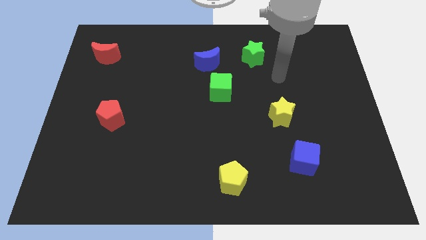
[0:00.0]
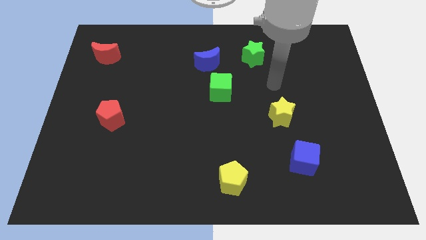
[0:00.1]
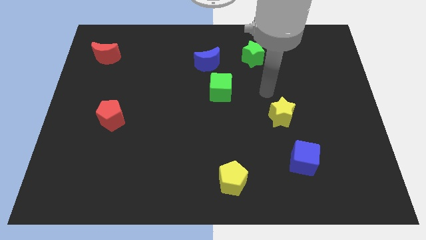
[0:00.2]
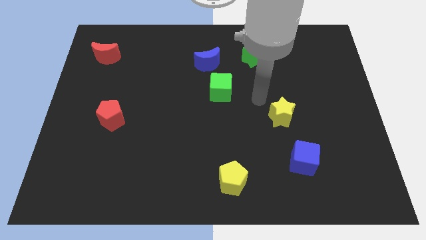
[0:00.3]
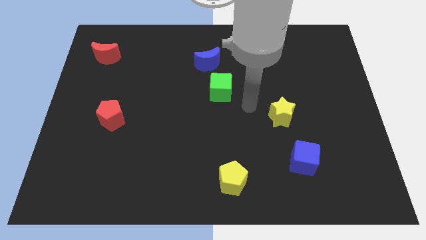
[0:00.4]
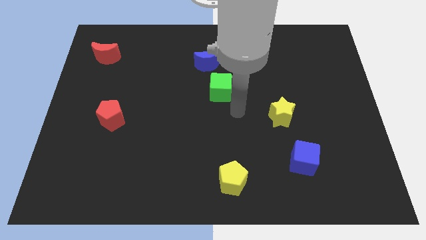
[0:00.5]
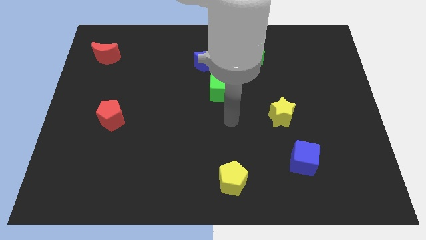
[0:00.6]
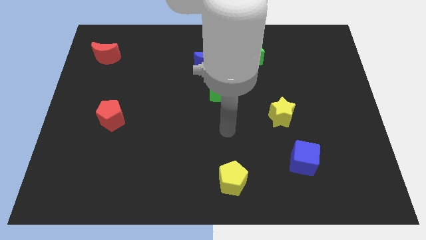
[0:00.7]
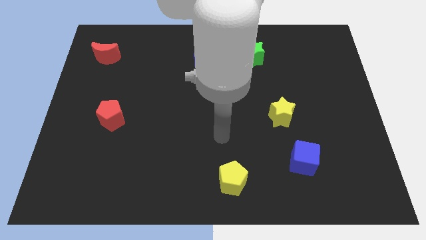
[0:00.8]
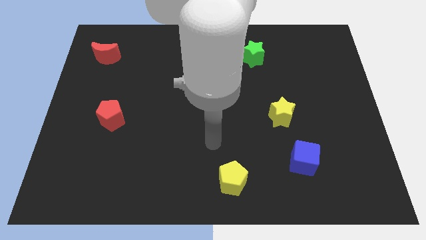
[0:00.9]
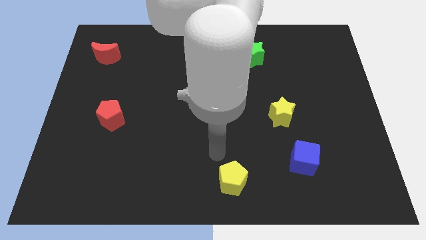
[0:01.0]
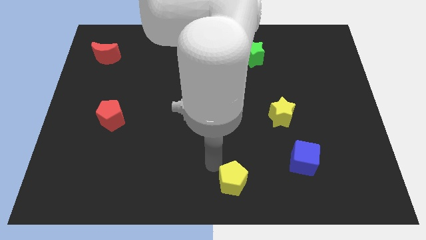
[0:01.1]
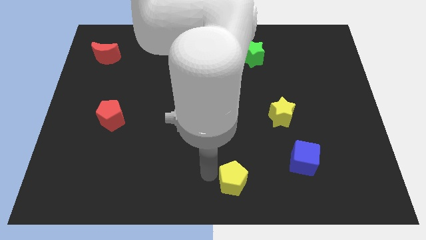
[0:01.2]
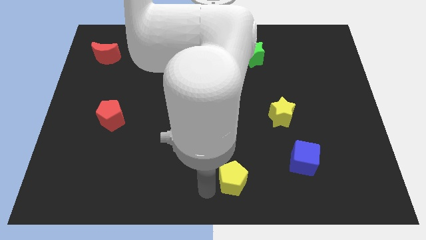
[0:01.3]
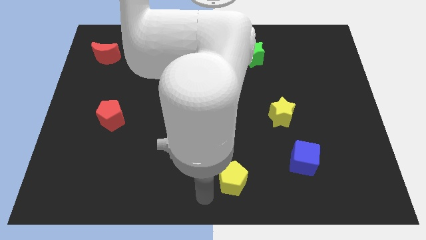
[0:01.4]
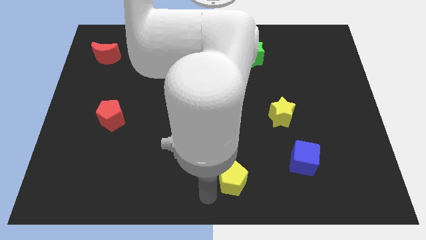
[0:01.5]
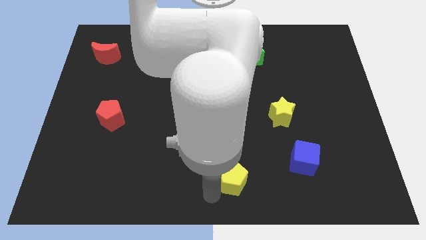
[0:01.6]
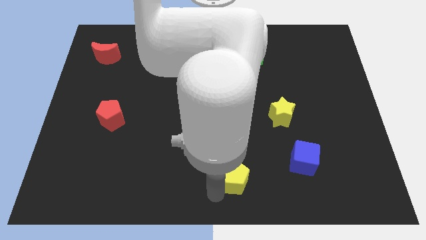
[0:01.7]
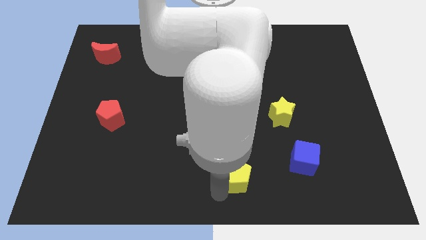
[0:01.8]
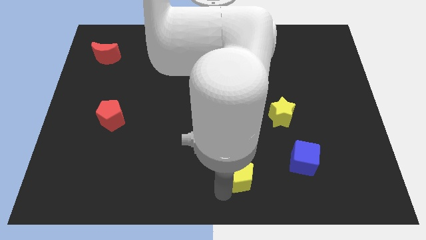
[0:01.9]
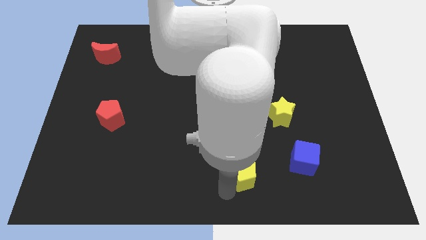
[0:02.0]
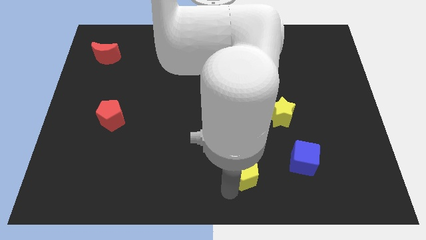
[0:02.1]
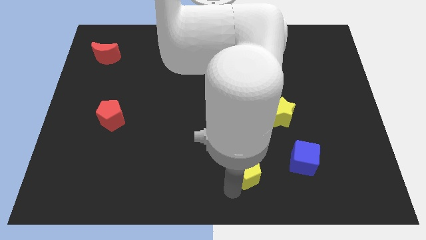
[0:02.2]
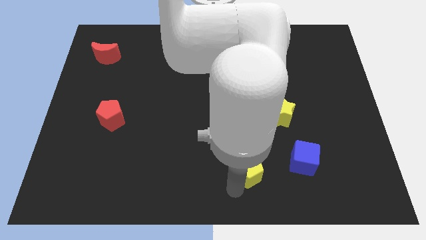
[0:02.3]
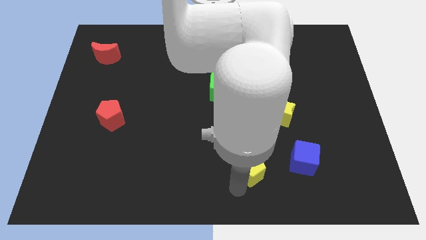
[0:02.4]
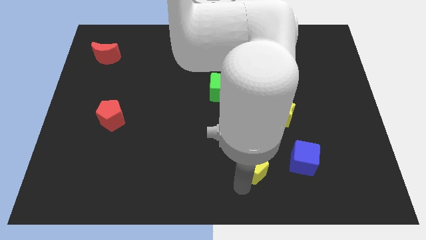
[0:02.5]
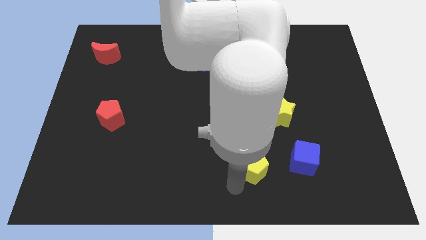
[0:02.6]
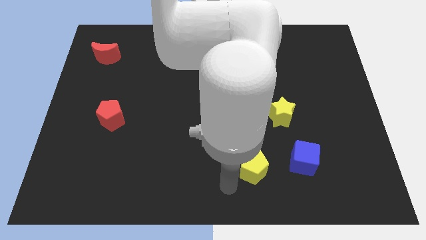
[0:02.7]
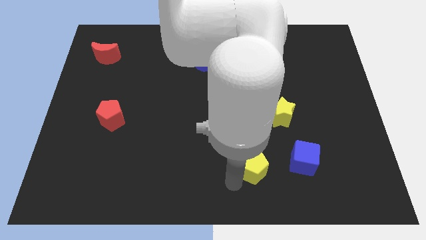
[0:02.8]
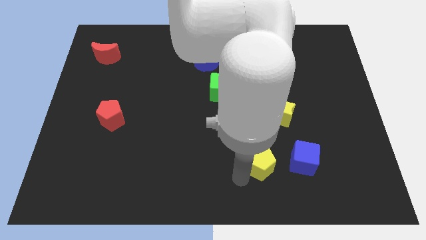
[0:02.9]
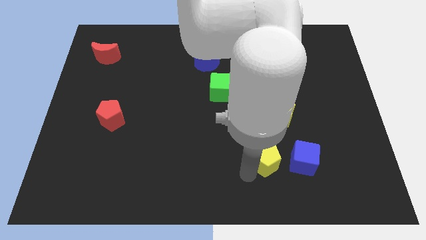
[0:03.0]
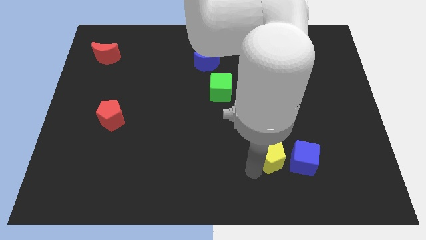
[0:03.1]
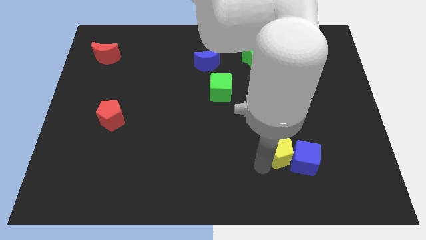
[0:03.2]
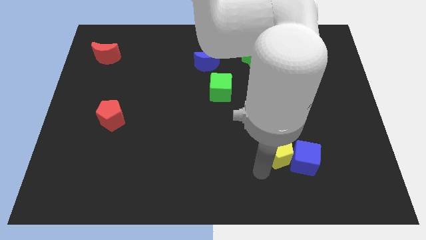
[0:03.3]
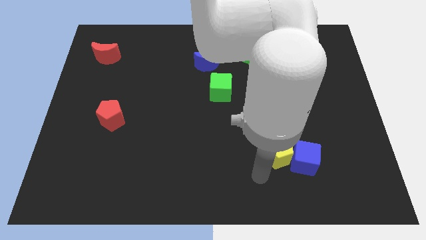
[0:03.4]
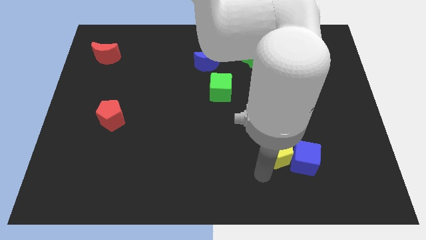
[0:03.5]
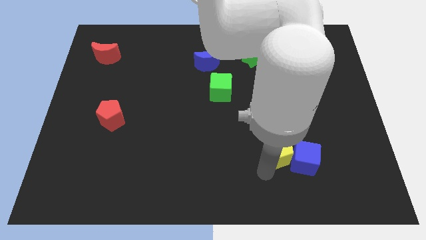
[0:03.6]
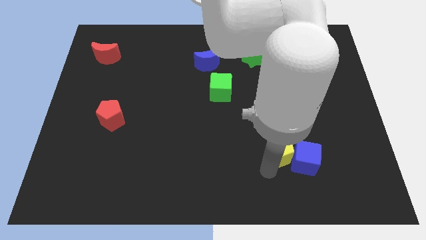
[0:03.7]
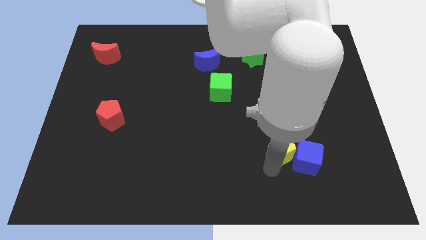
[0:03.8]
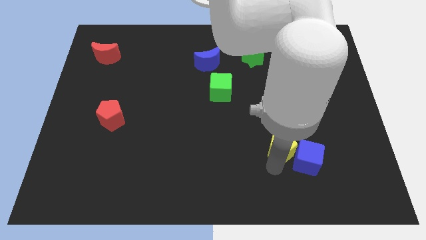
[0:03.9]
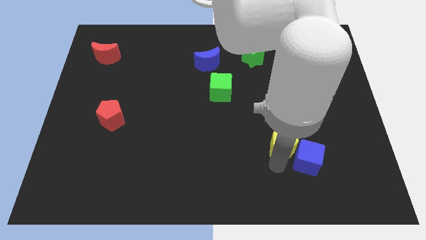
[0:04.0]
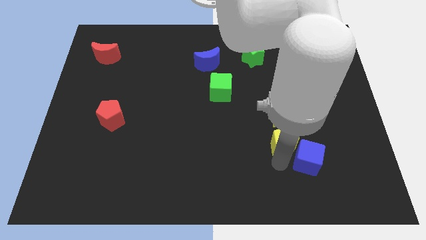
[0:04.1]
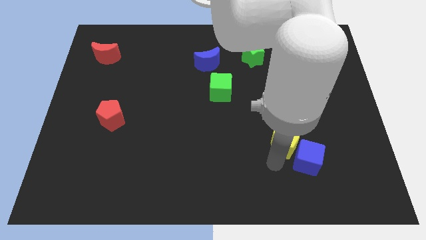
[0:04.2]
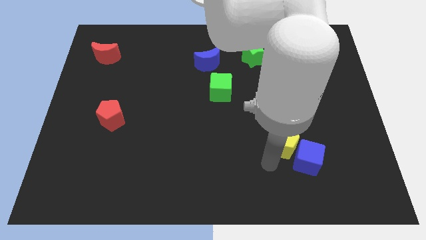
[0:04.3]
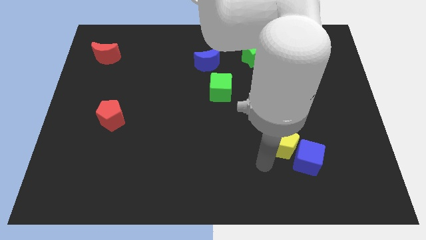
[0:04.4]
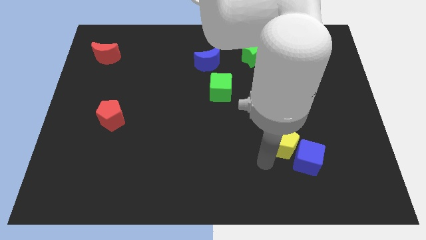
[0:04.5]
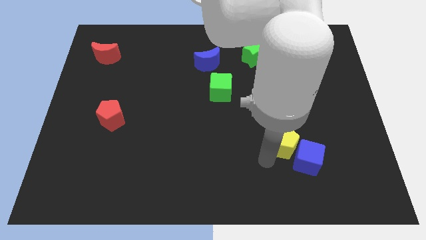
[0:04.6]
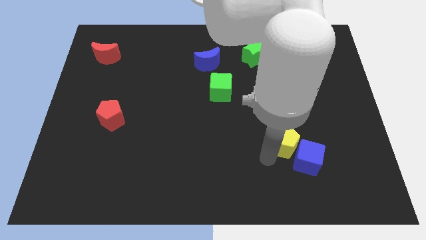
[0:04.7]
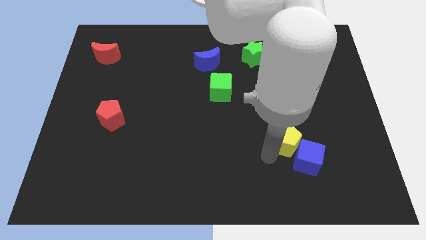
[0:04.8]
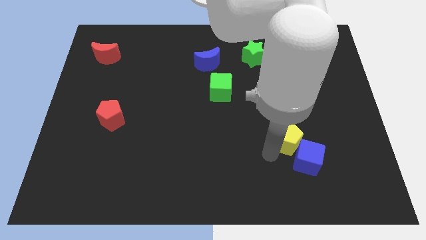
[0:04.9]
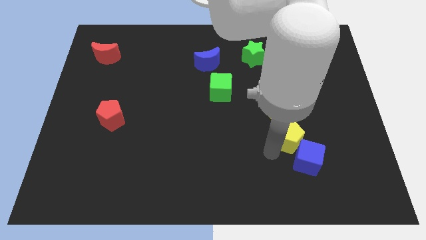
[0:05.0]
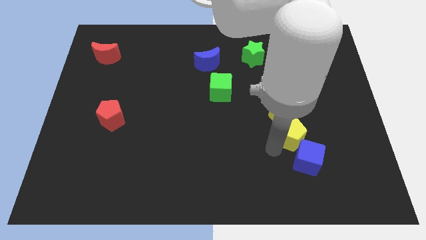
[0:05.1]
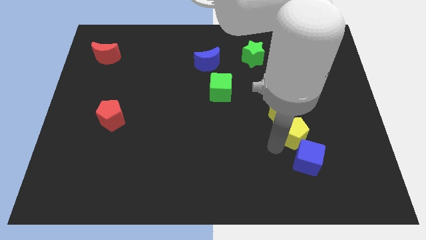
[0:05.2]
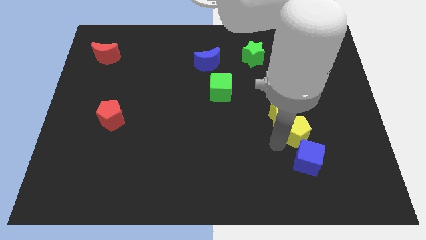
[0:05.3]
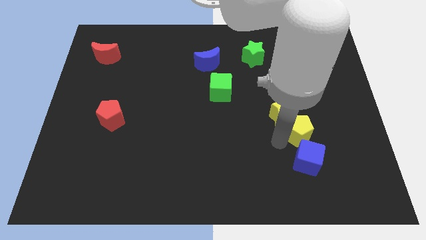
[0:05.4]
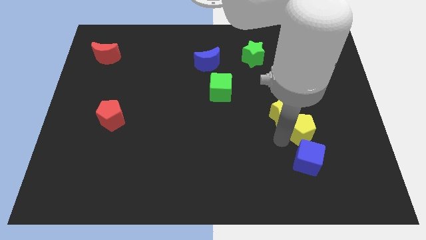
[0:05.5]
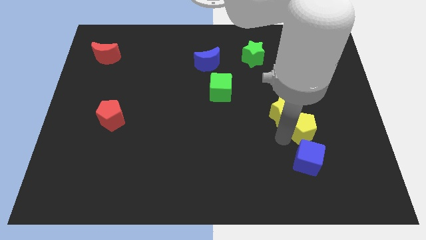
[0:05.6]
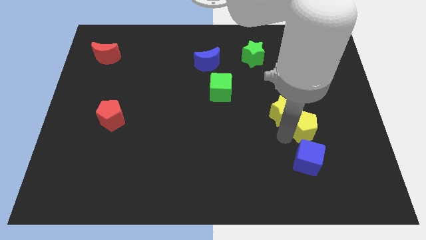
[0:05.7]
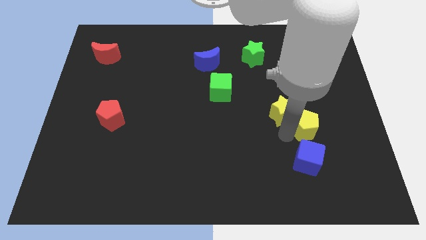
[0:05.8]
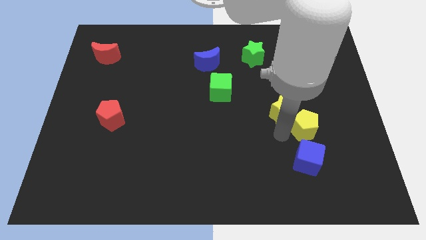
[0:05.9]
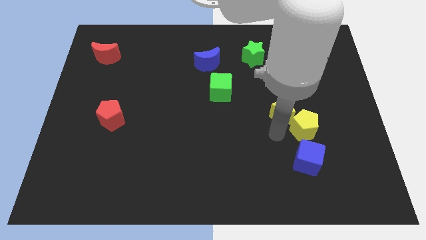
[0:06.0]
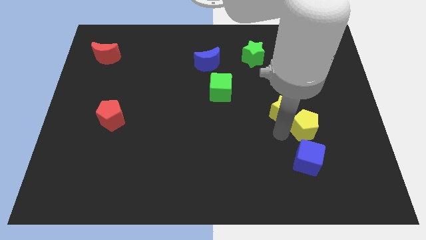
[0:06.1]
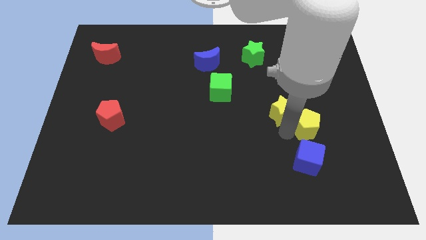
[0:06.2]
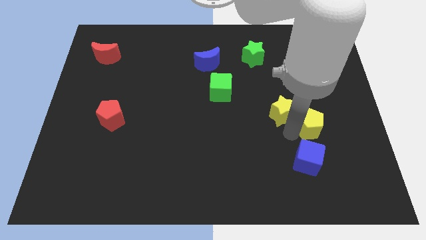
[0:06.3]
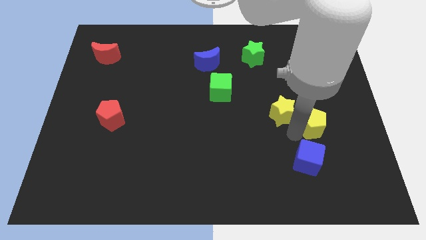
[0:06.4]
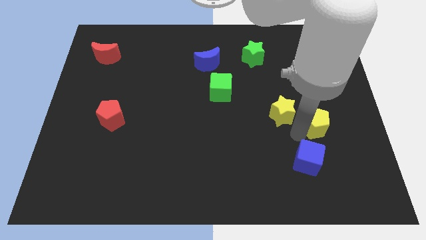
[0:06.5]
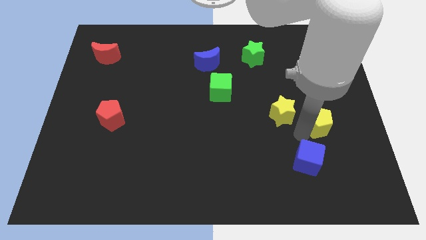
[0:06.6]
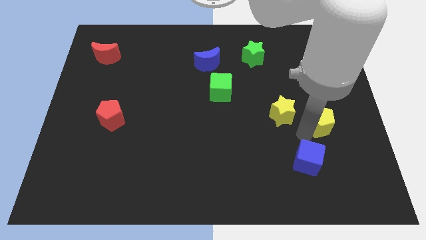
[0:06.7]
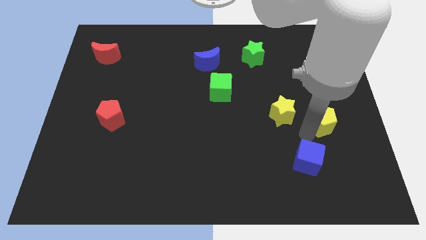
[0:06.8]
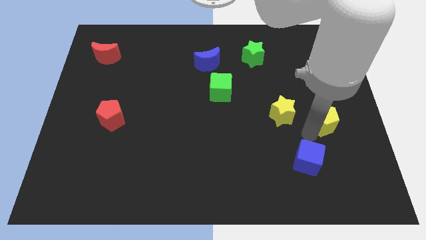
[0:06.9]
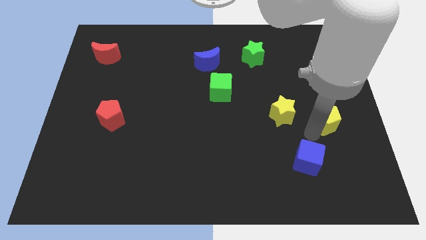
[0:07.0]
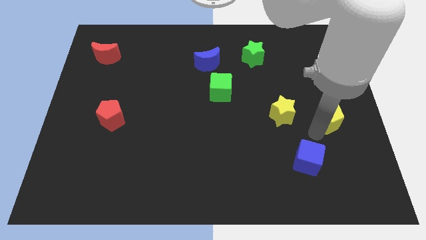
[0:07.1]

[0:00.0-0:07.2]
push the yellow pentagon to the center right
